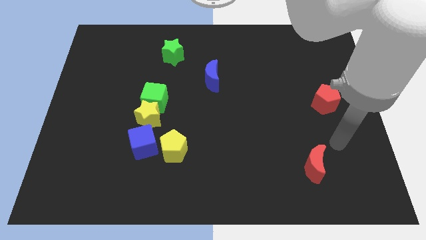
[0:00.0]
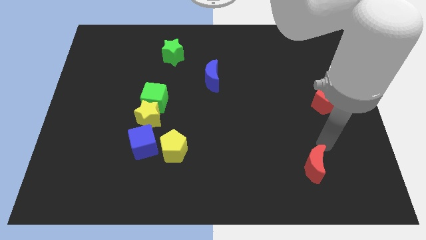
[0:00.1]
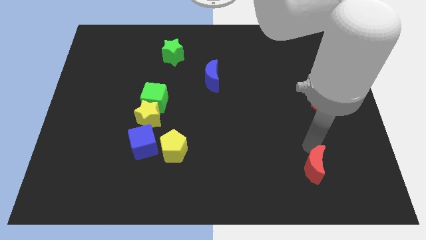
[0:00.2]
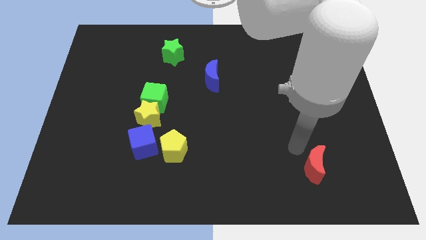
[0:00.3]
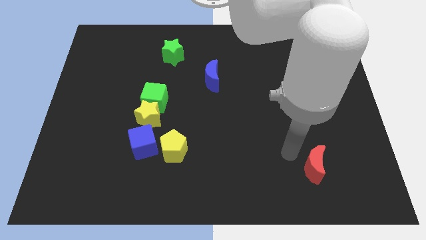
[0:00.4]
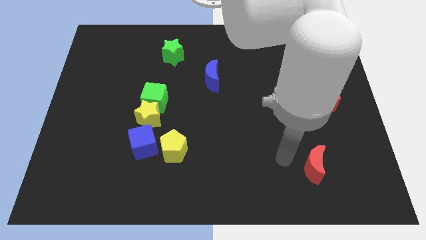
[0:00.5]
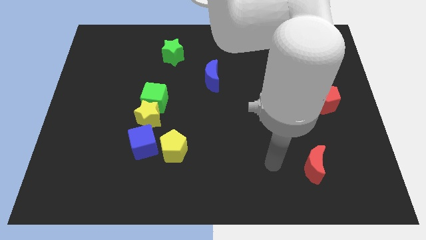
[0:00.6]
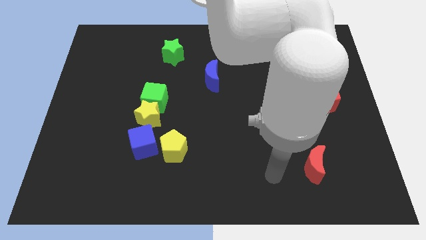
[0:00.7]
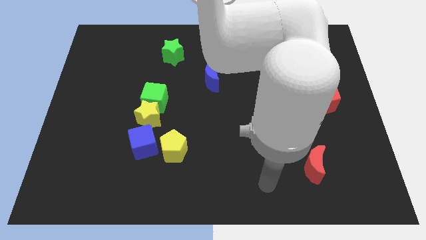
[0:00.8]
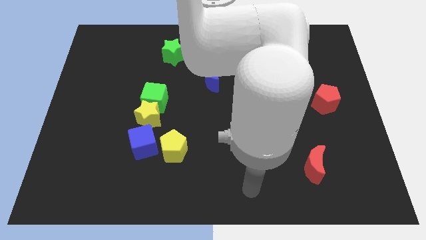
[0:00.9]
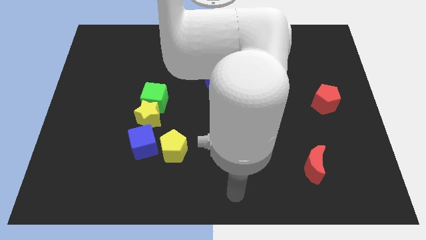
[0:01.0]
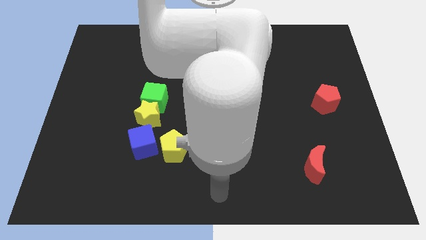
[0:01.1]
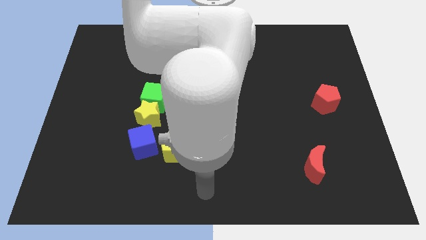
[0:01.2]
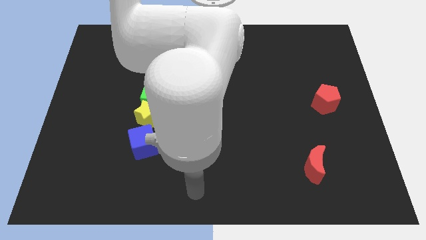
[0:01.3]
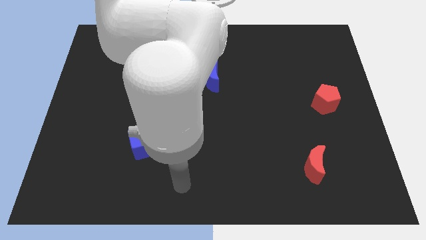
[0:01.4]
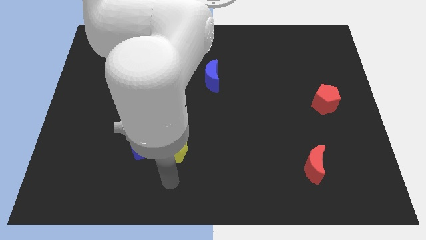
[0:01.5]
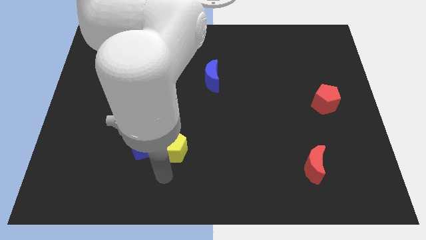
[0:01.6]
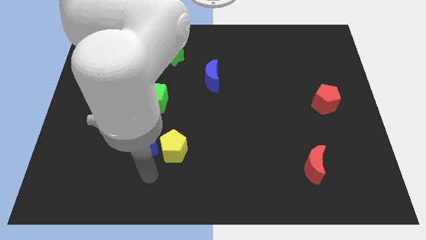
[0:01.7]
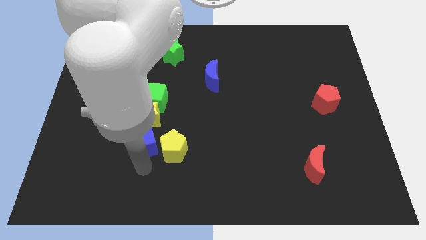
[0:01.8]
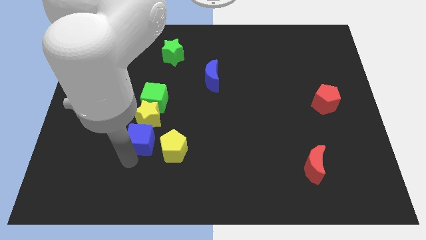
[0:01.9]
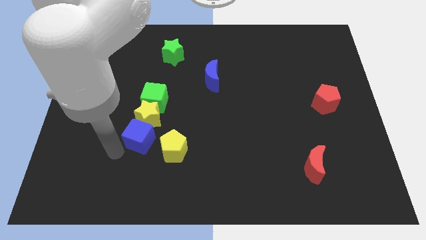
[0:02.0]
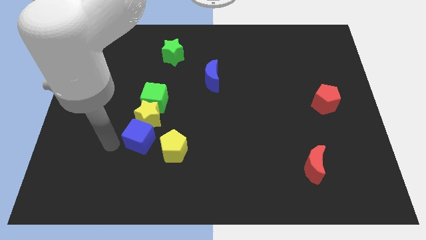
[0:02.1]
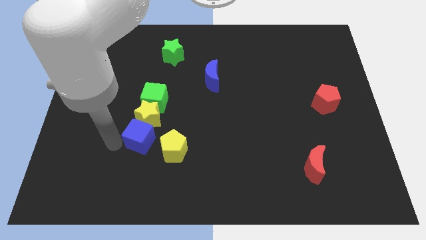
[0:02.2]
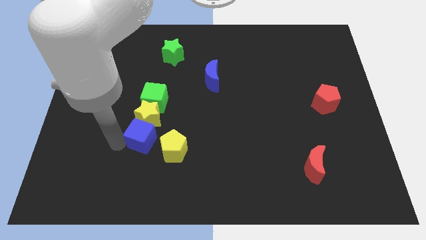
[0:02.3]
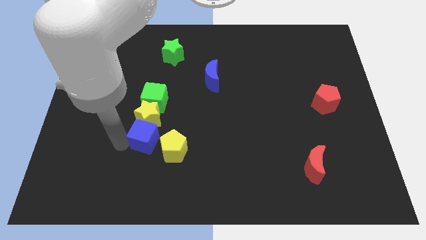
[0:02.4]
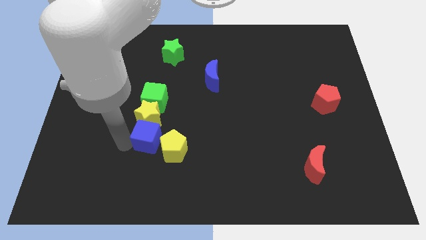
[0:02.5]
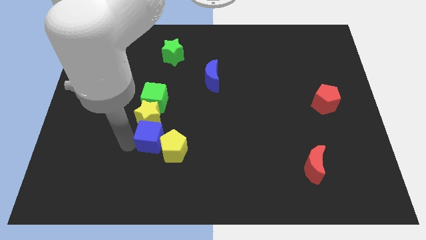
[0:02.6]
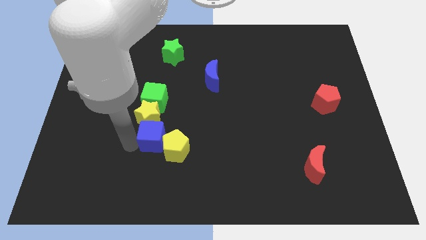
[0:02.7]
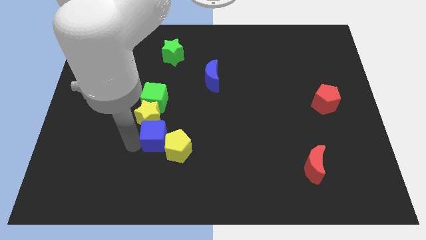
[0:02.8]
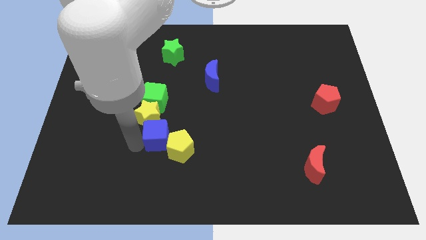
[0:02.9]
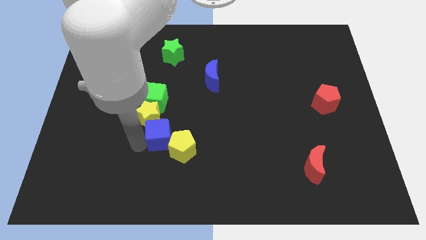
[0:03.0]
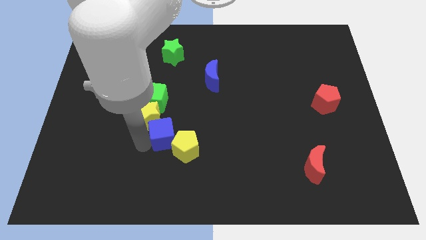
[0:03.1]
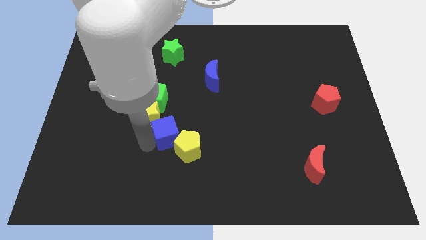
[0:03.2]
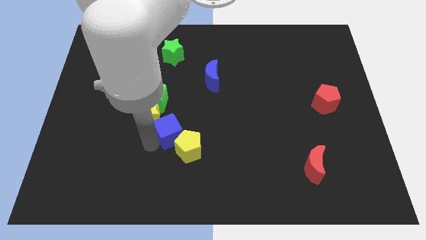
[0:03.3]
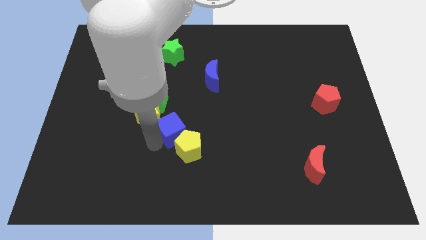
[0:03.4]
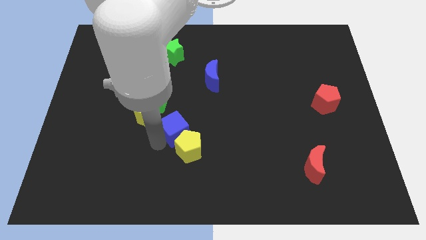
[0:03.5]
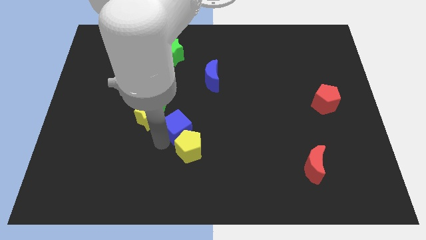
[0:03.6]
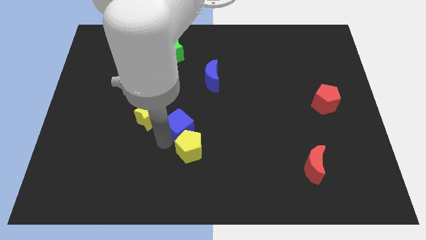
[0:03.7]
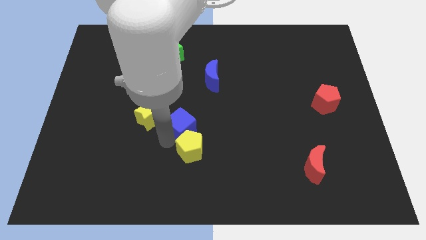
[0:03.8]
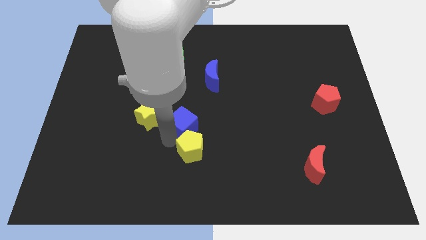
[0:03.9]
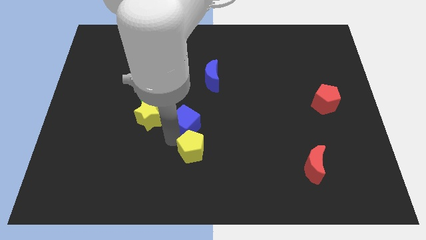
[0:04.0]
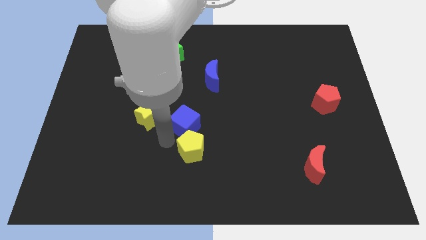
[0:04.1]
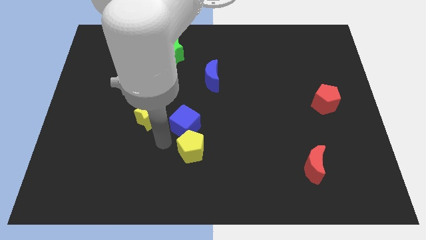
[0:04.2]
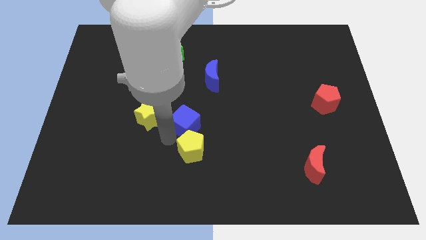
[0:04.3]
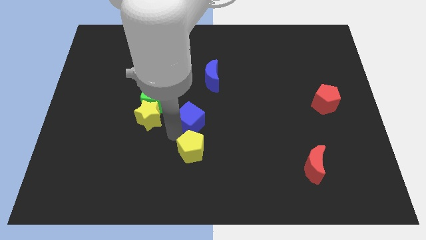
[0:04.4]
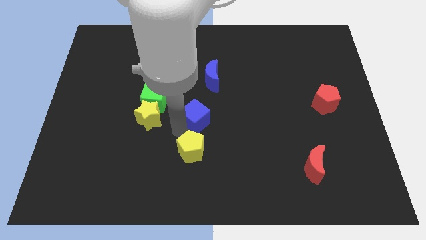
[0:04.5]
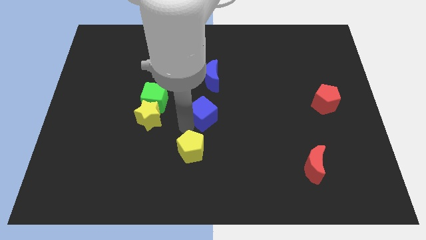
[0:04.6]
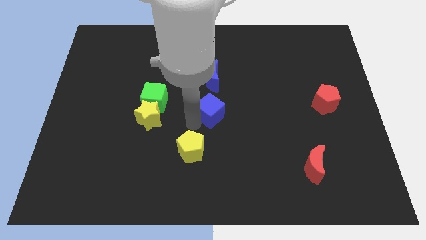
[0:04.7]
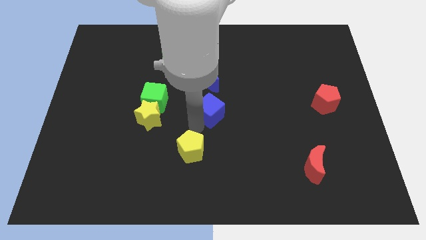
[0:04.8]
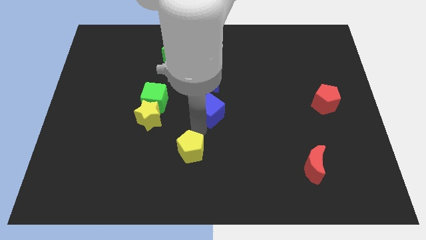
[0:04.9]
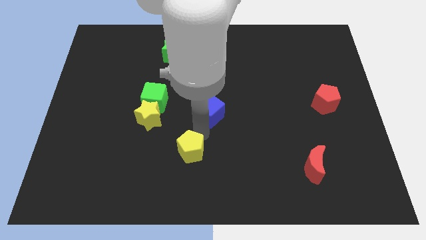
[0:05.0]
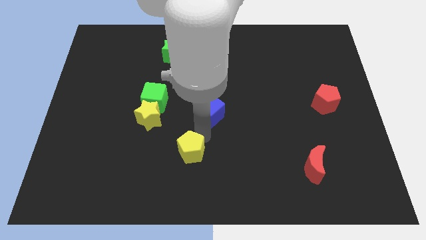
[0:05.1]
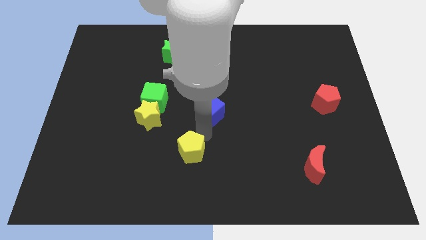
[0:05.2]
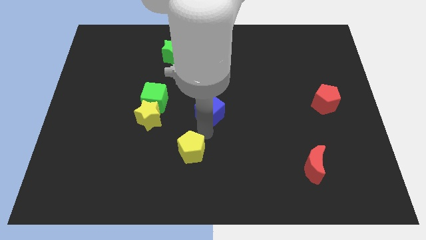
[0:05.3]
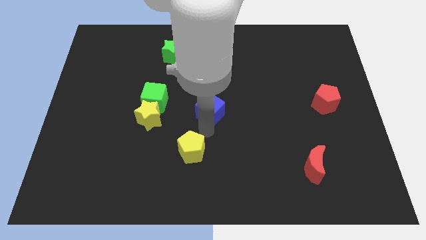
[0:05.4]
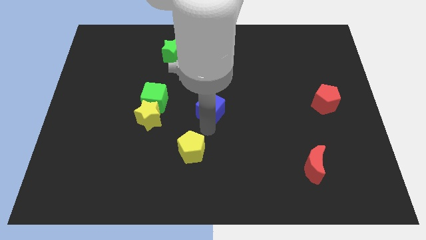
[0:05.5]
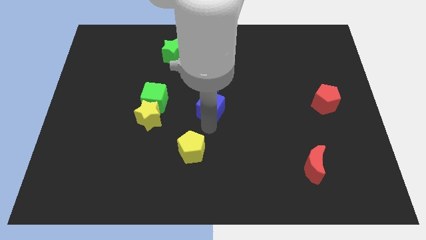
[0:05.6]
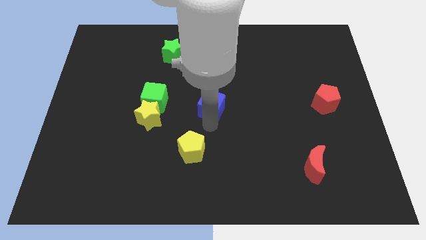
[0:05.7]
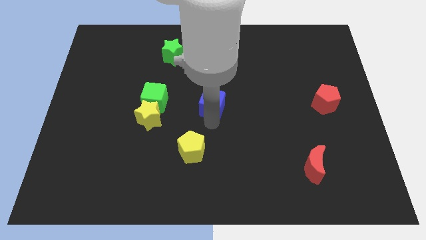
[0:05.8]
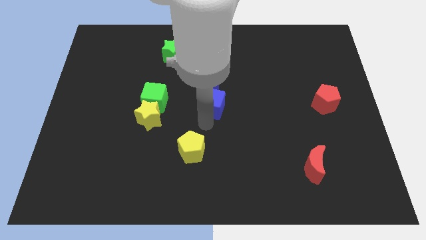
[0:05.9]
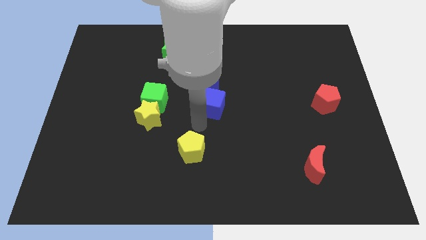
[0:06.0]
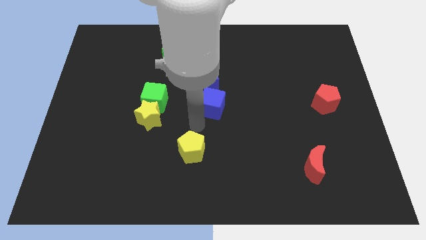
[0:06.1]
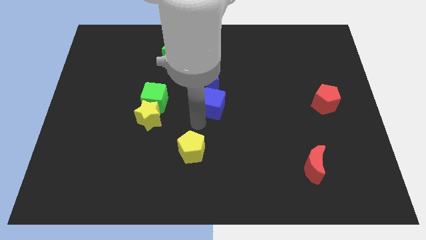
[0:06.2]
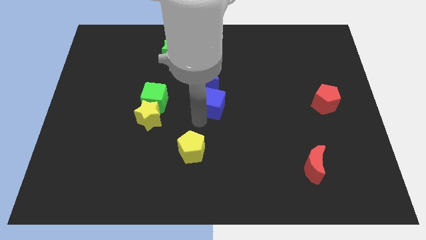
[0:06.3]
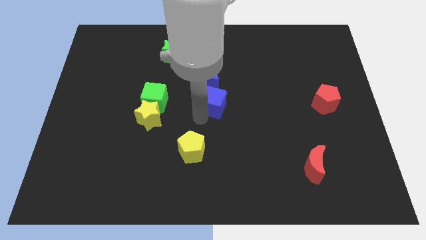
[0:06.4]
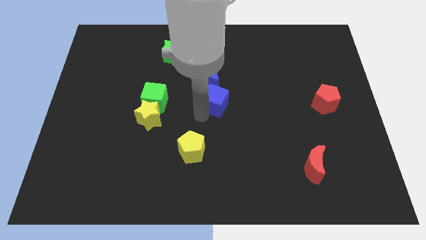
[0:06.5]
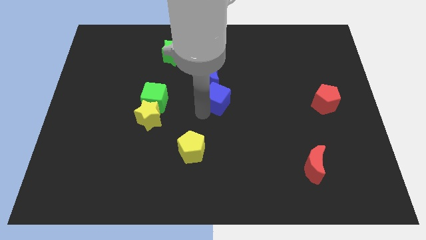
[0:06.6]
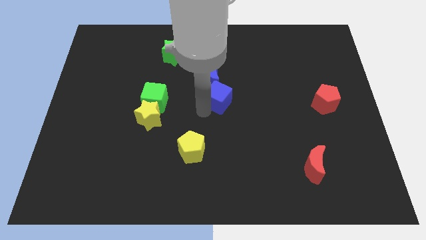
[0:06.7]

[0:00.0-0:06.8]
move the blue cube upwards and right diagonally

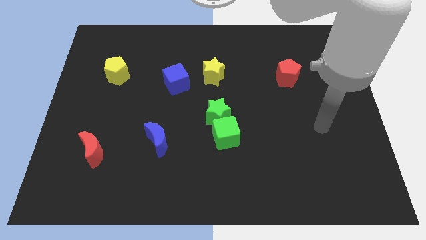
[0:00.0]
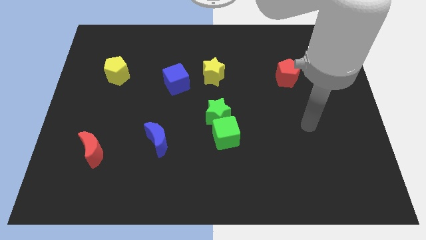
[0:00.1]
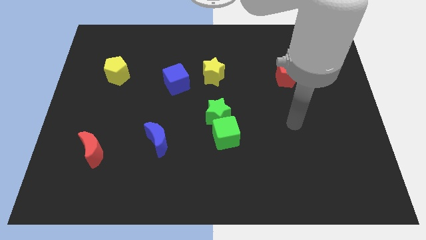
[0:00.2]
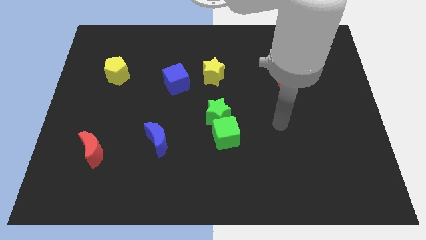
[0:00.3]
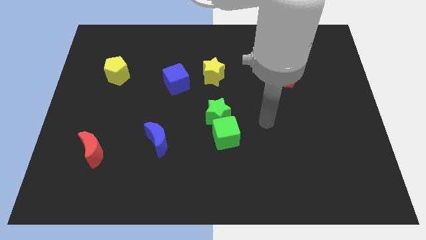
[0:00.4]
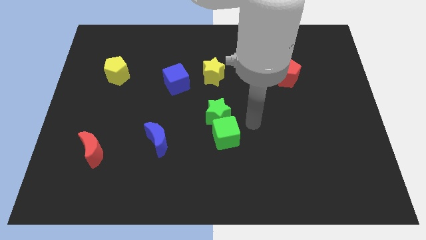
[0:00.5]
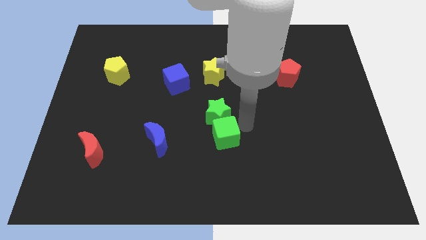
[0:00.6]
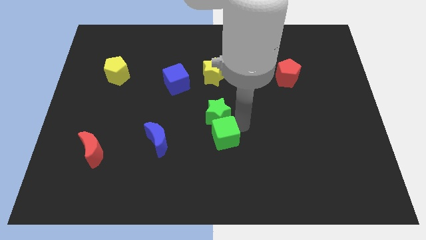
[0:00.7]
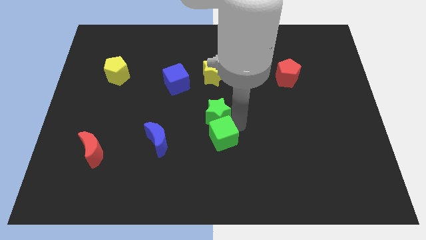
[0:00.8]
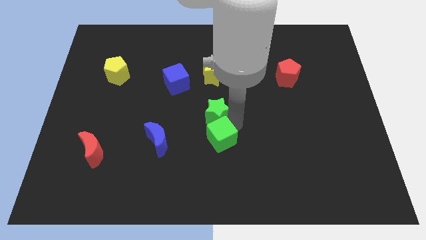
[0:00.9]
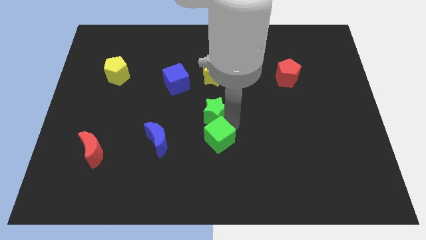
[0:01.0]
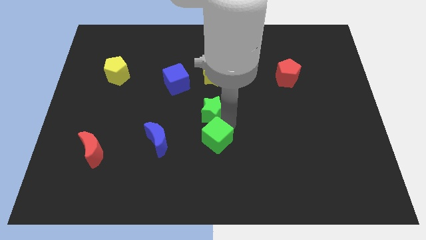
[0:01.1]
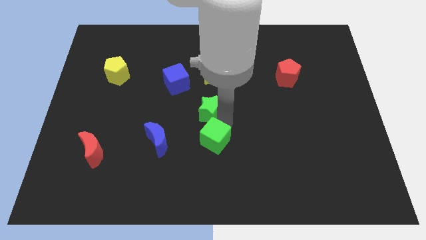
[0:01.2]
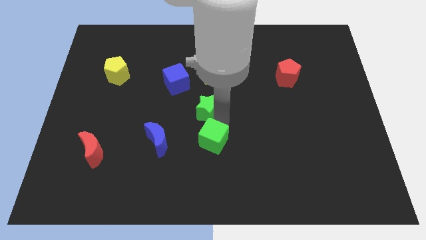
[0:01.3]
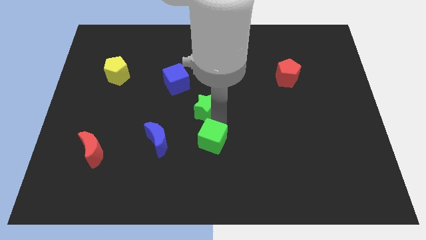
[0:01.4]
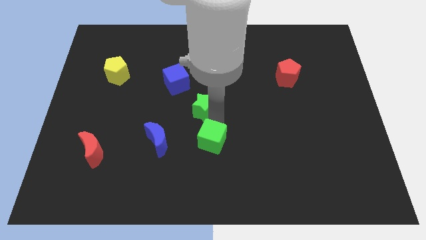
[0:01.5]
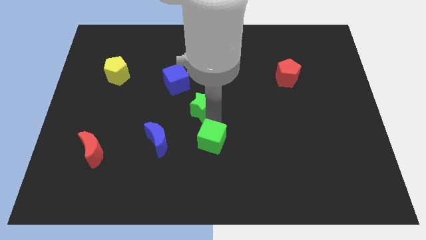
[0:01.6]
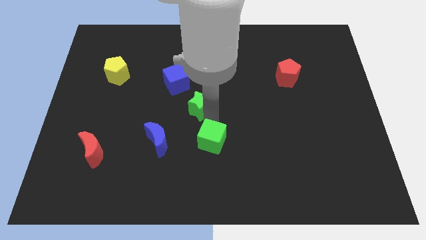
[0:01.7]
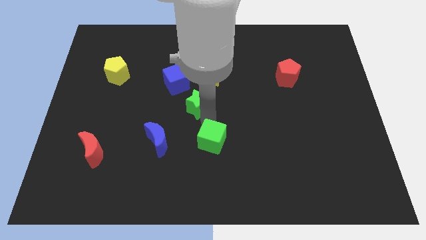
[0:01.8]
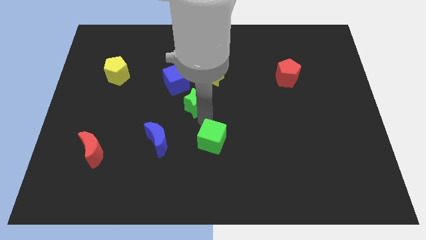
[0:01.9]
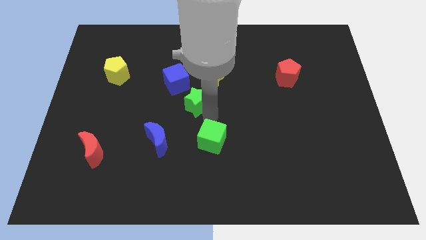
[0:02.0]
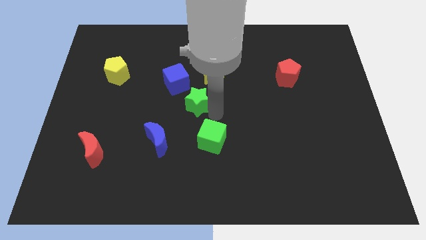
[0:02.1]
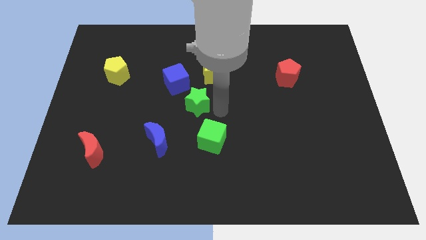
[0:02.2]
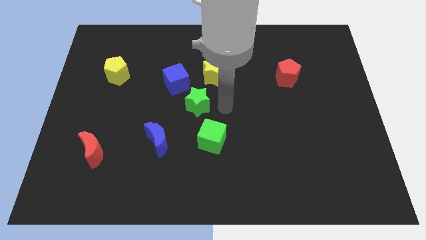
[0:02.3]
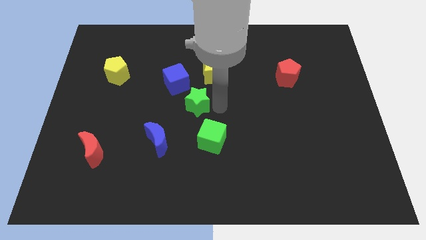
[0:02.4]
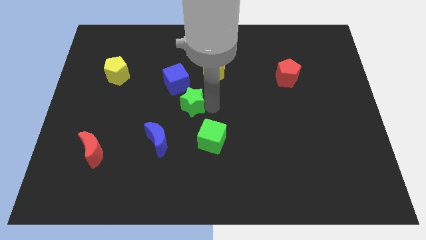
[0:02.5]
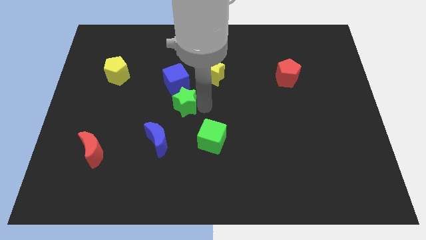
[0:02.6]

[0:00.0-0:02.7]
slide the green star a bit up and then left
